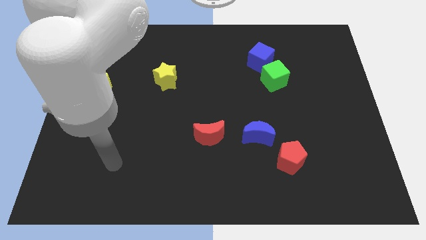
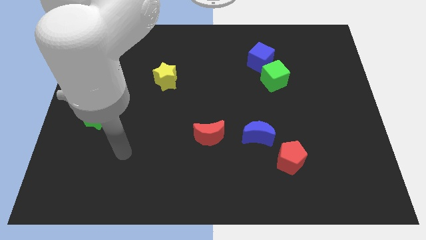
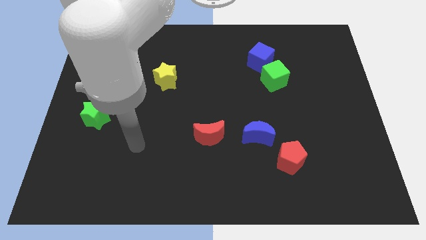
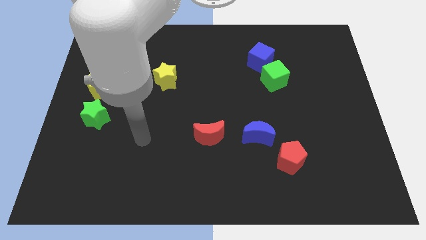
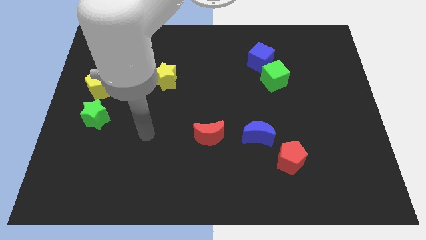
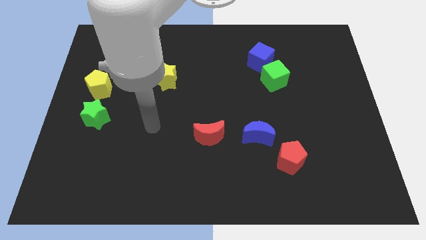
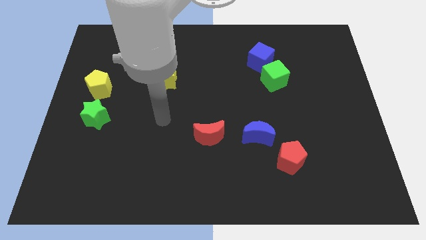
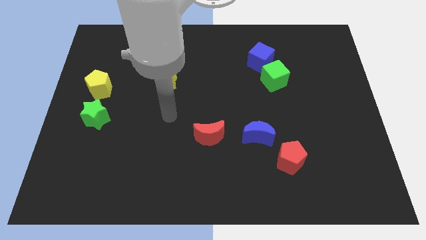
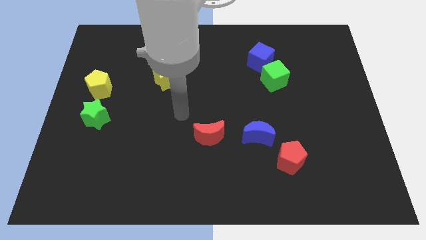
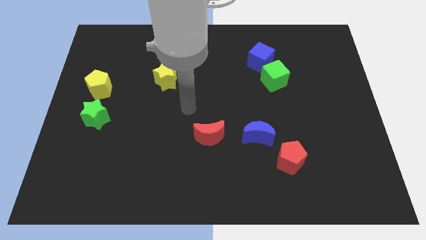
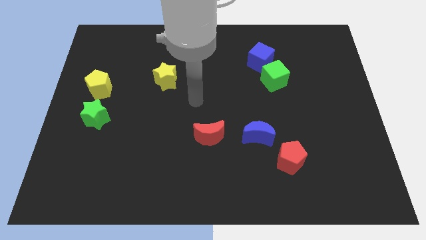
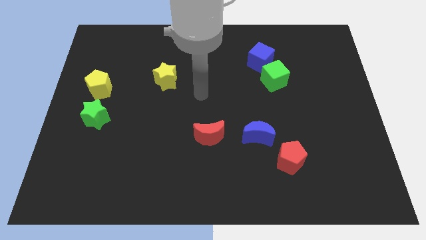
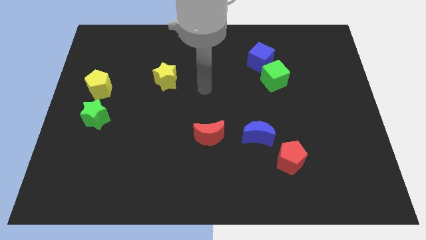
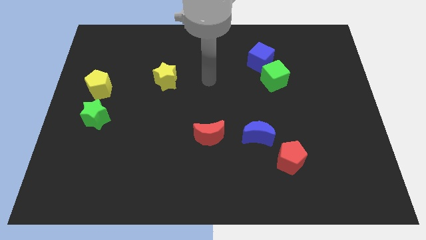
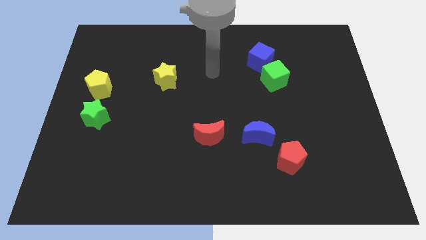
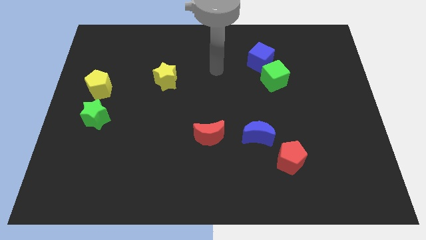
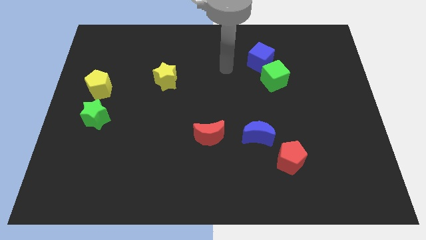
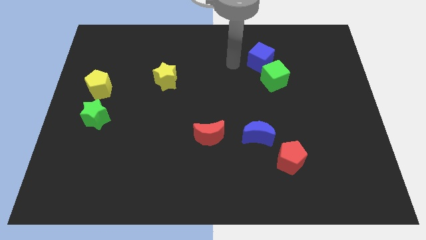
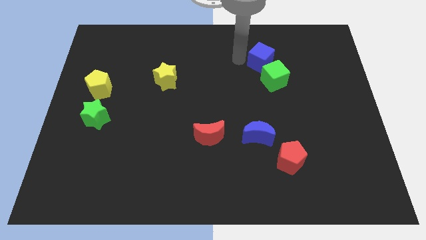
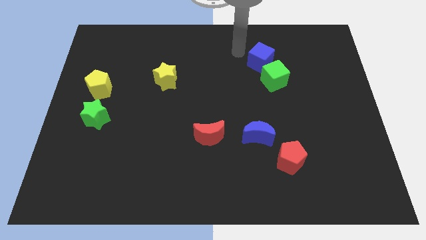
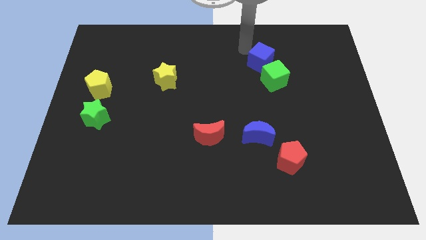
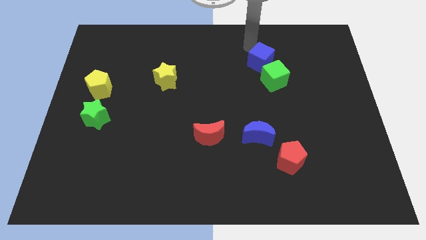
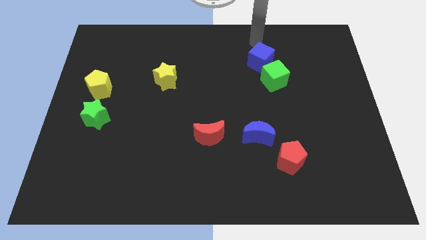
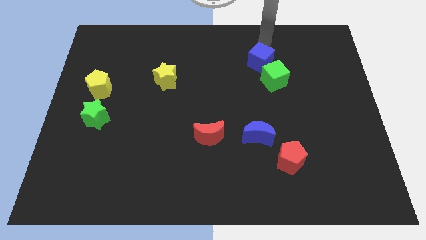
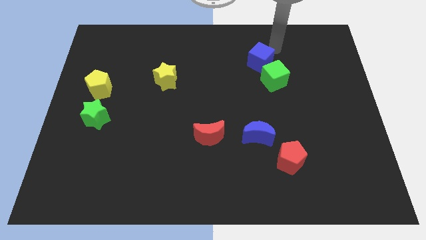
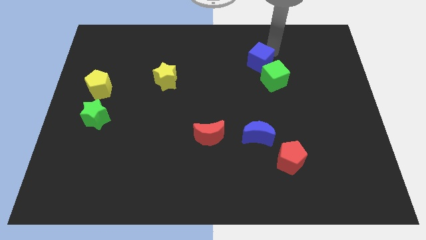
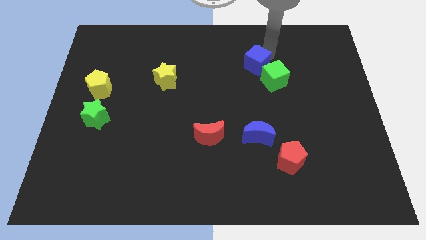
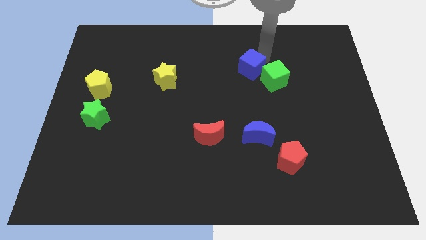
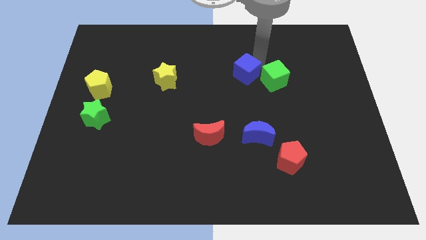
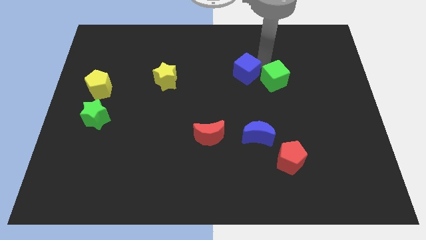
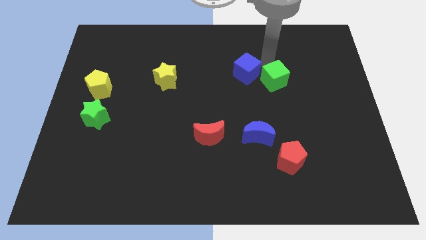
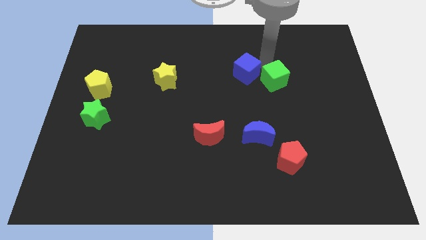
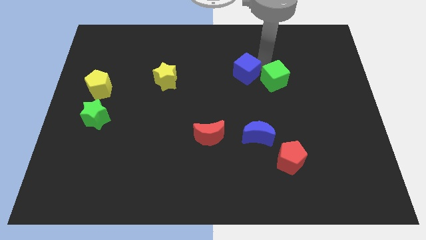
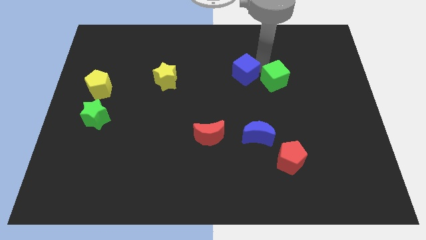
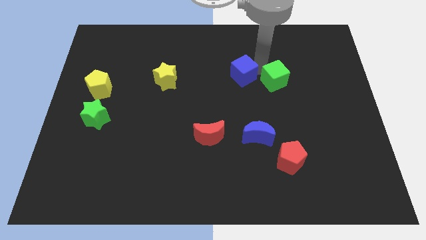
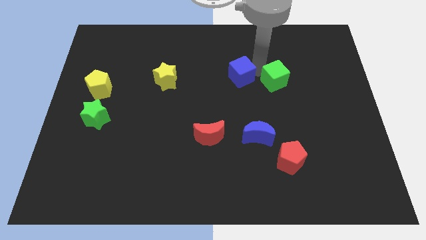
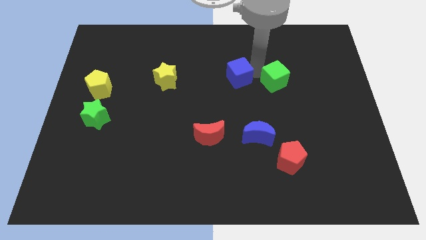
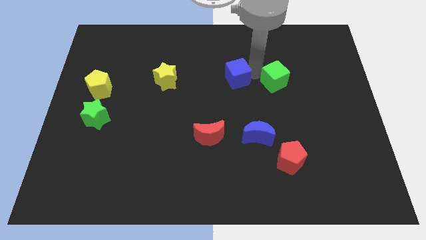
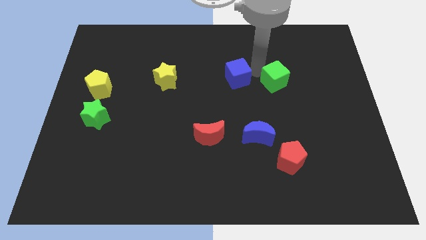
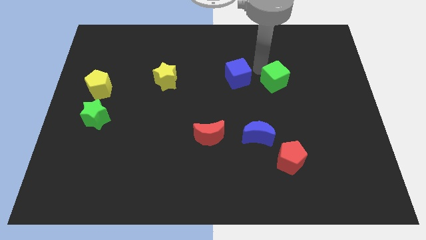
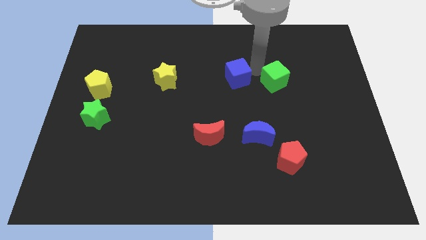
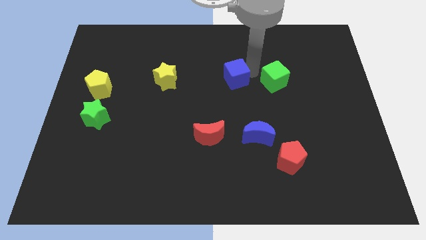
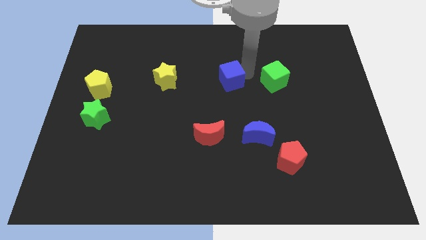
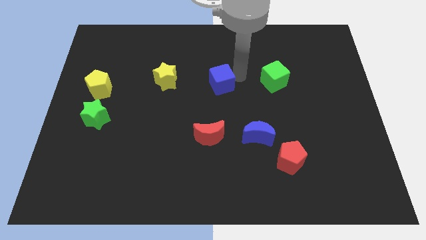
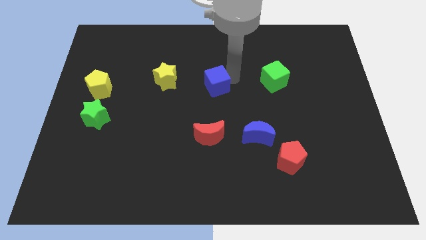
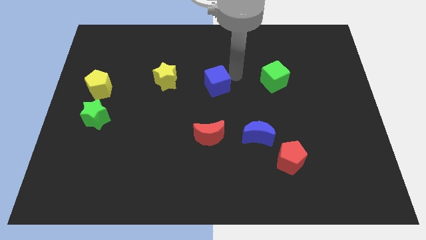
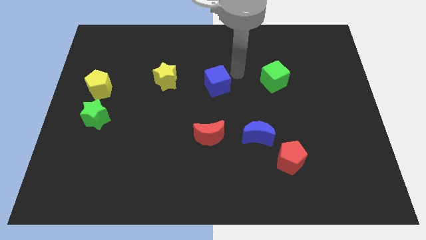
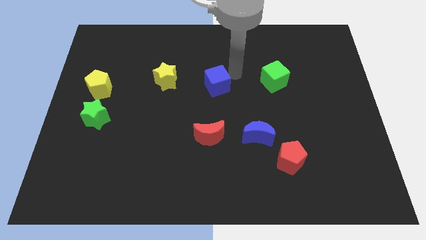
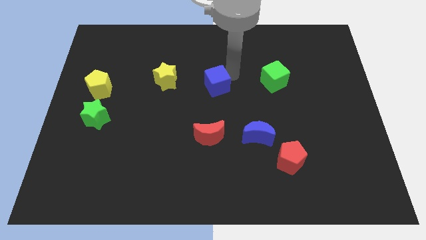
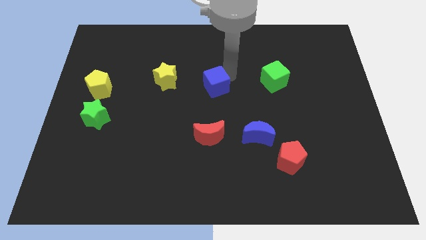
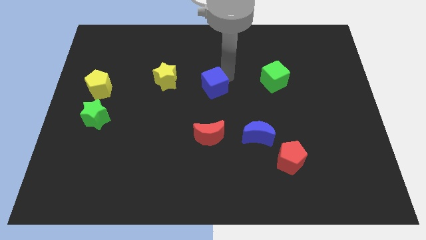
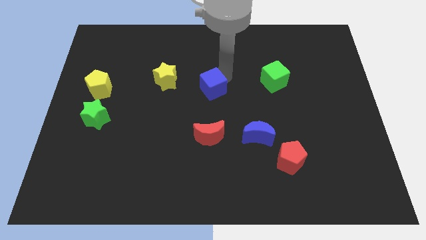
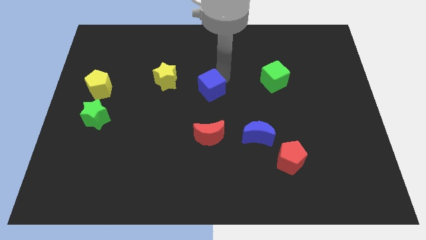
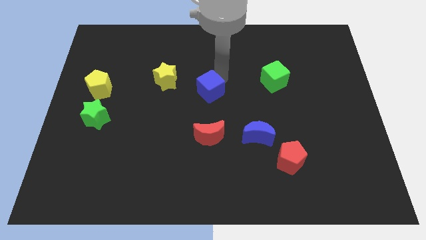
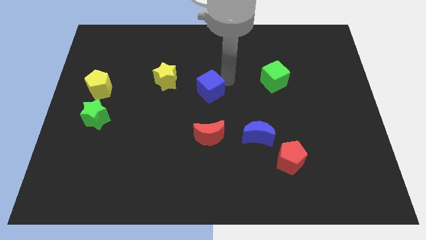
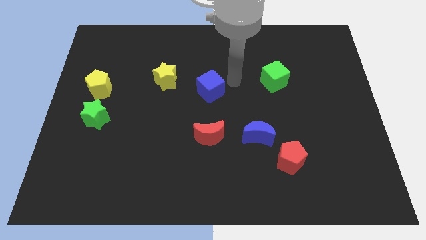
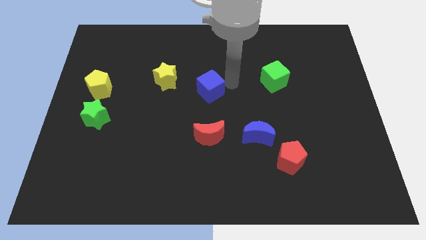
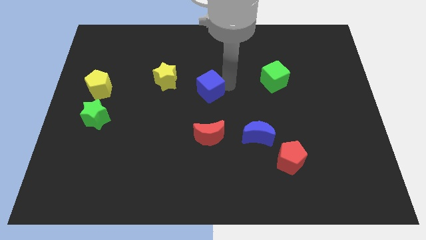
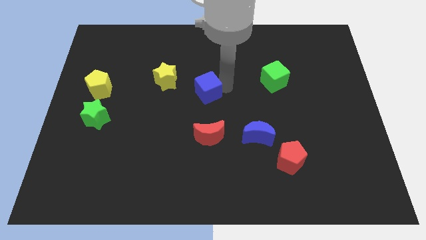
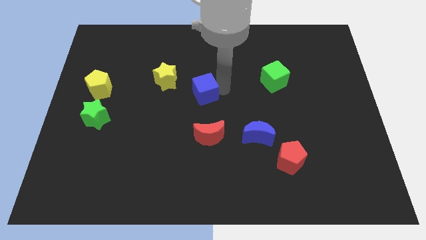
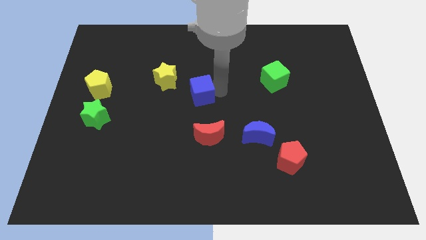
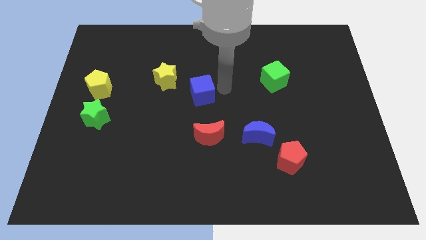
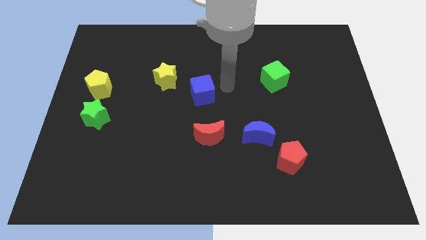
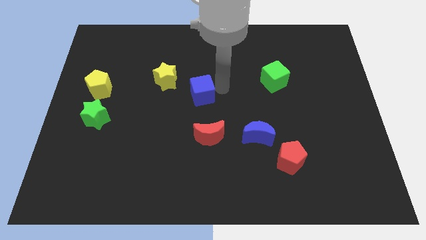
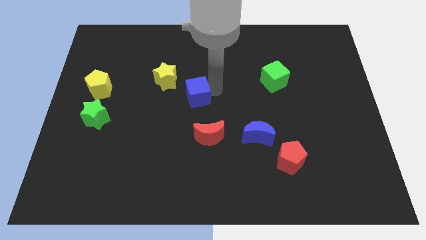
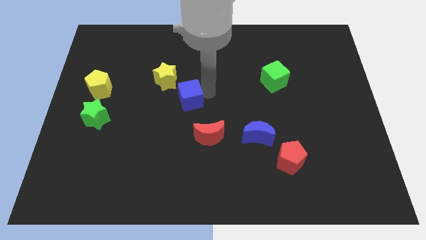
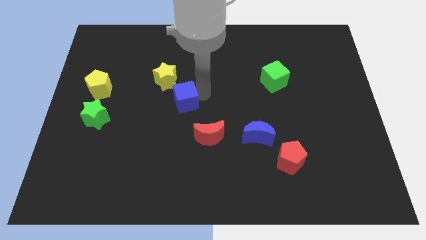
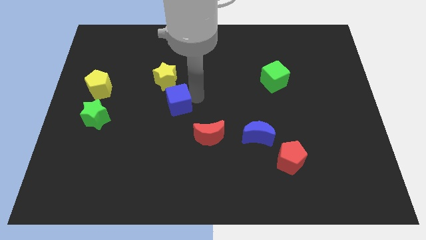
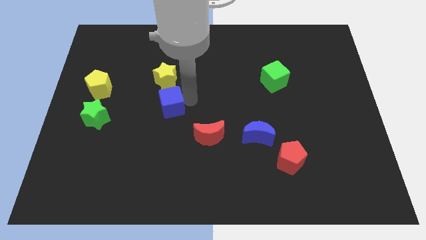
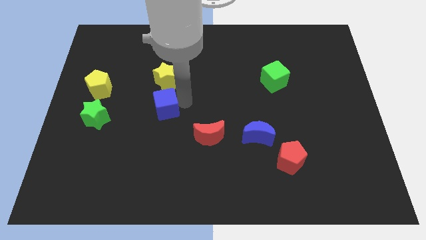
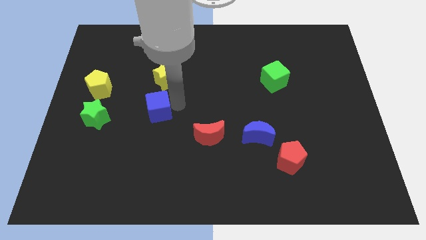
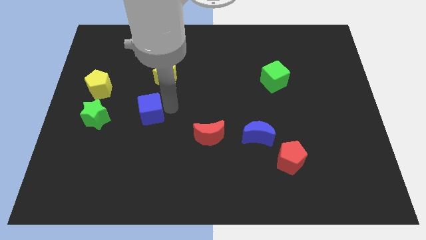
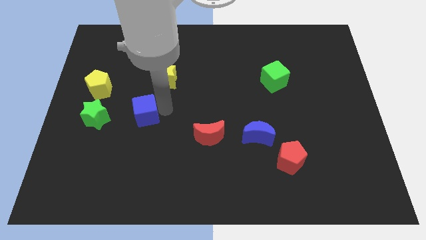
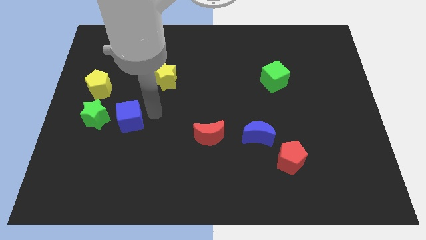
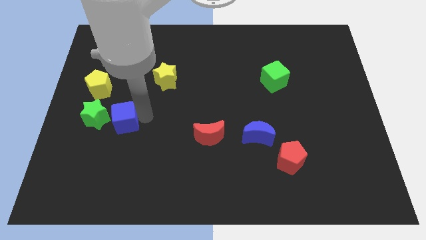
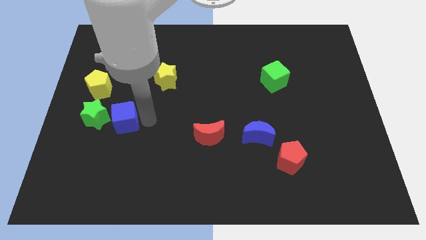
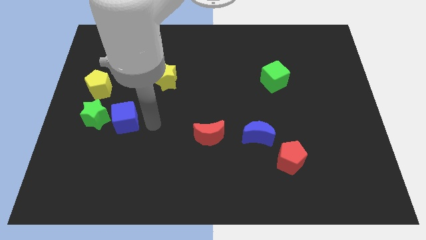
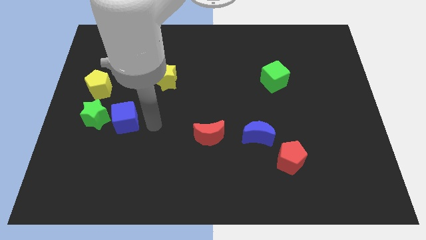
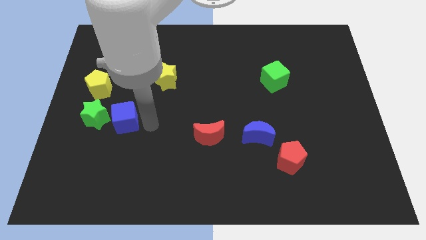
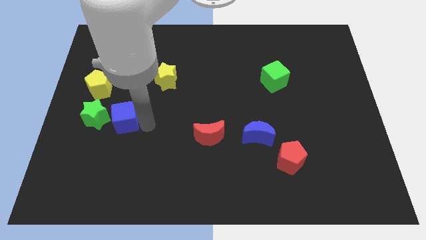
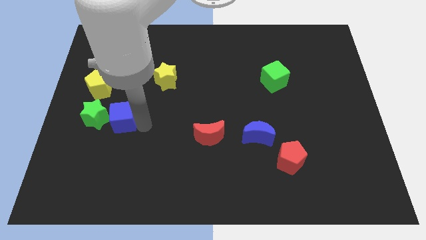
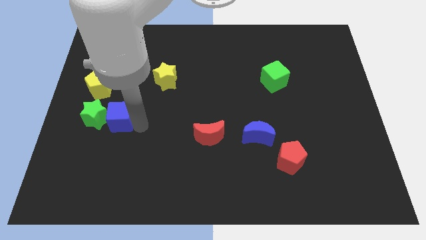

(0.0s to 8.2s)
put the blue cube close to the green star
